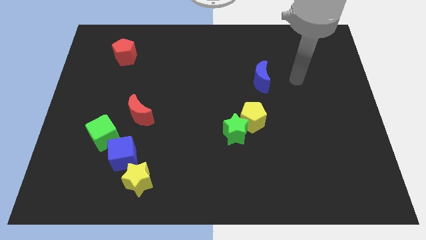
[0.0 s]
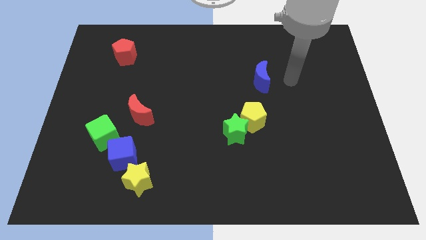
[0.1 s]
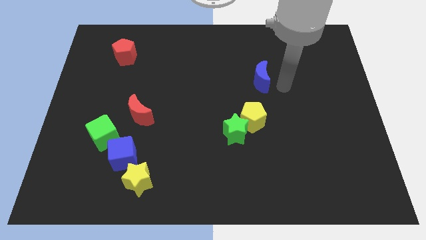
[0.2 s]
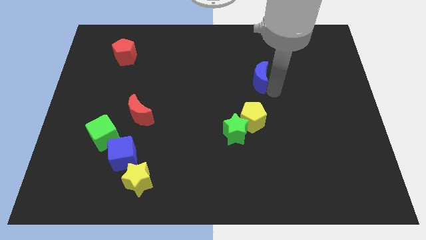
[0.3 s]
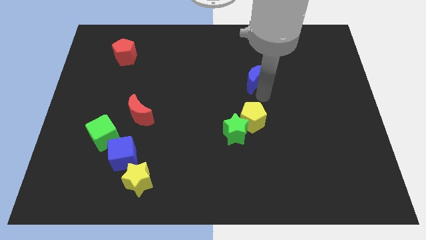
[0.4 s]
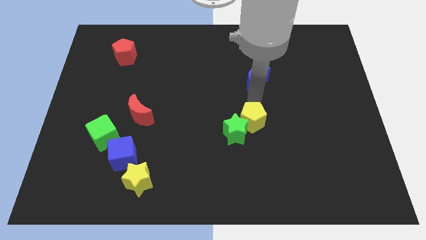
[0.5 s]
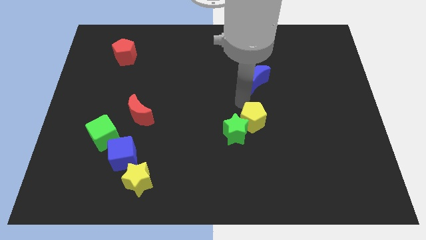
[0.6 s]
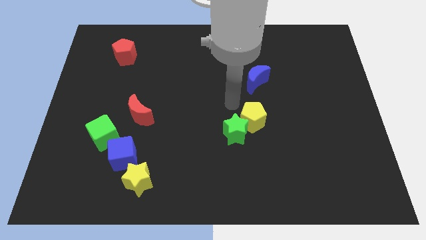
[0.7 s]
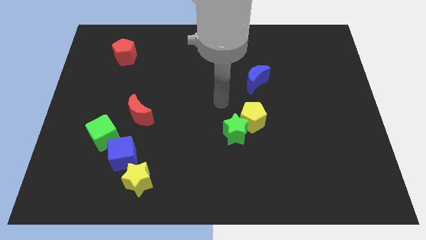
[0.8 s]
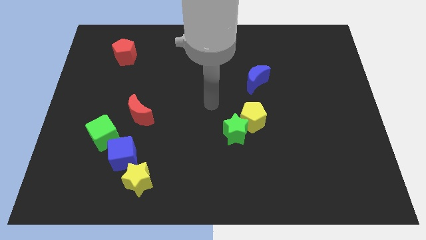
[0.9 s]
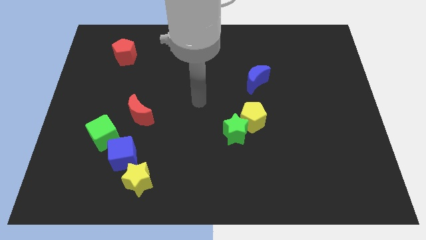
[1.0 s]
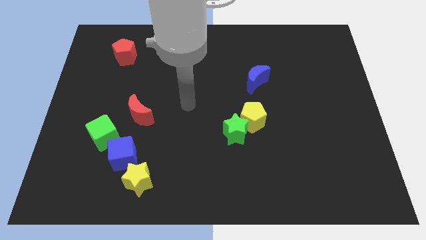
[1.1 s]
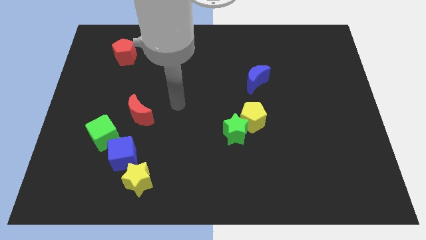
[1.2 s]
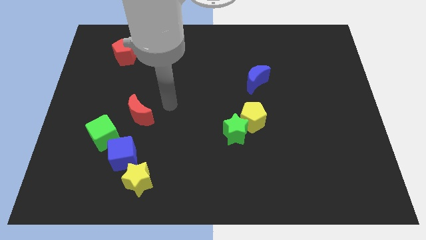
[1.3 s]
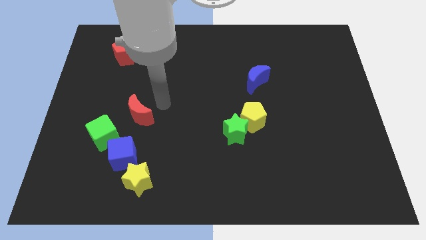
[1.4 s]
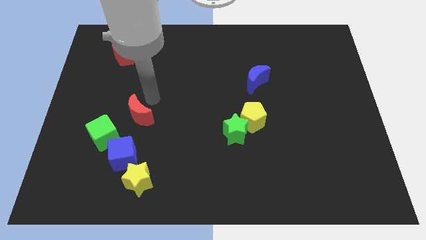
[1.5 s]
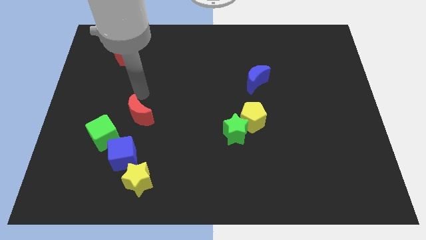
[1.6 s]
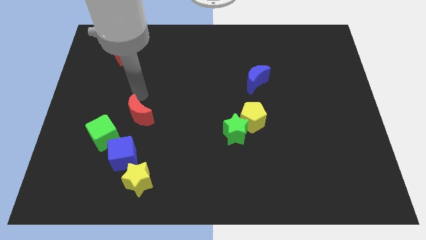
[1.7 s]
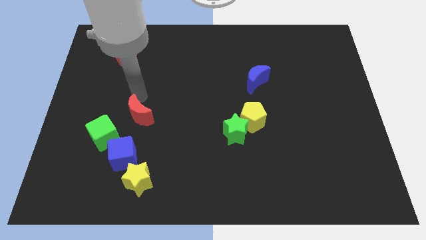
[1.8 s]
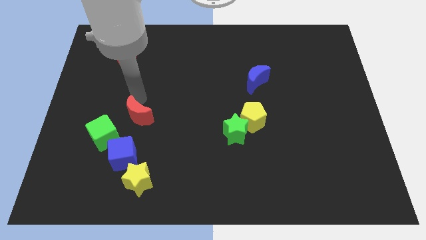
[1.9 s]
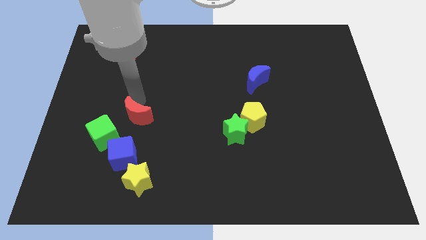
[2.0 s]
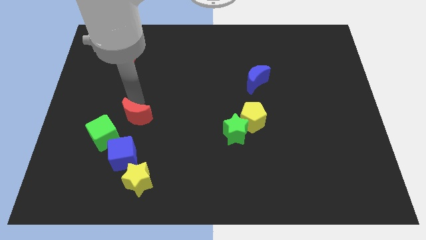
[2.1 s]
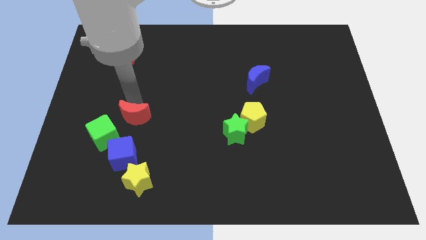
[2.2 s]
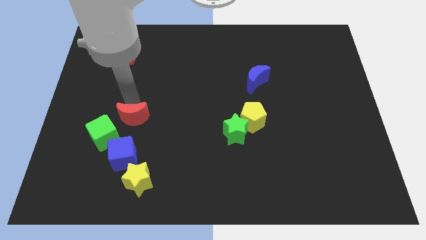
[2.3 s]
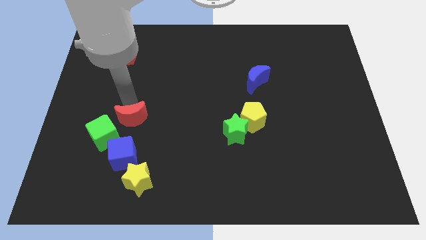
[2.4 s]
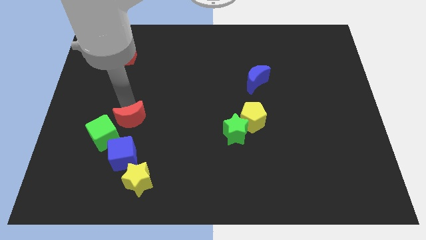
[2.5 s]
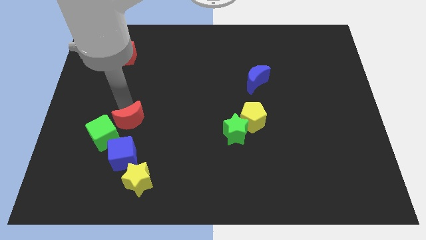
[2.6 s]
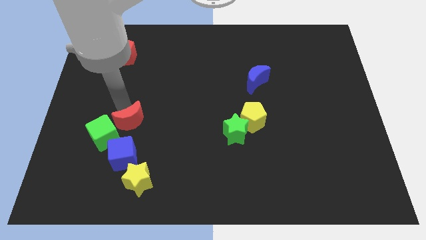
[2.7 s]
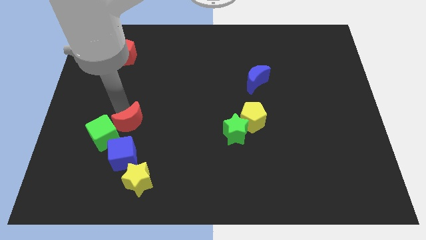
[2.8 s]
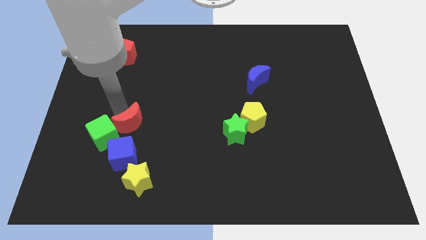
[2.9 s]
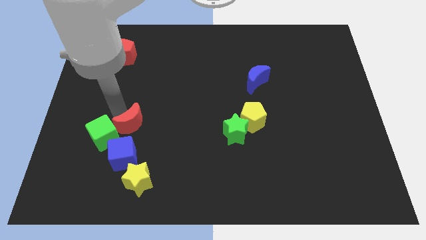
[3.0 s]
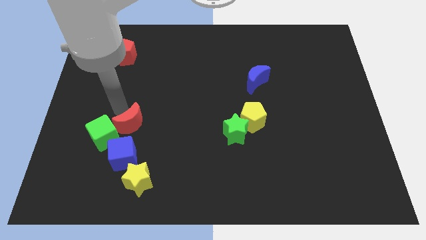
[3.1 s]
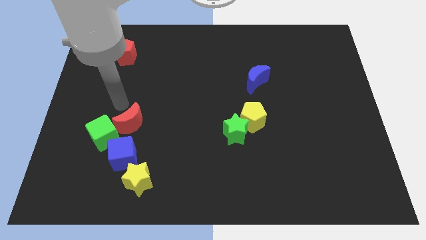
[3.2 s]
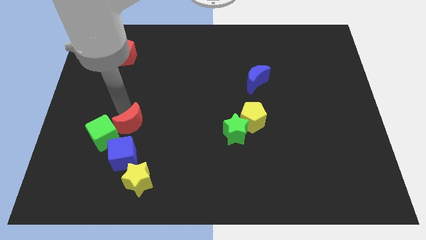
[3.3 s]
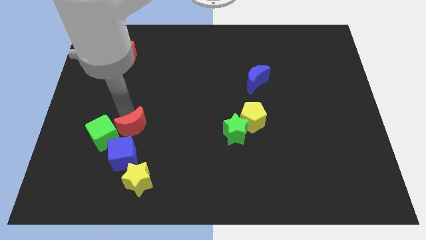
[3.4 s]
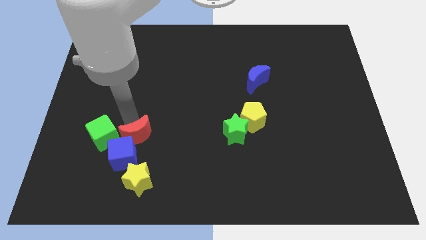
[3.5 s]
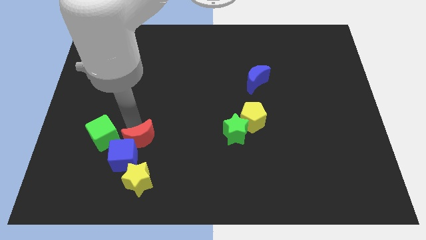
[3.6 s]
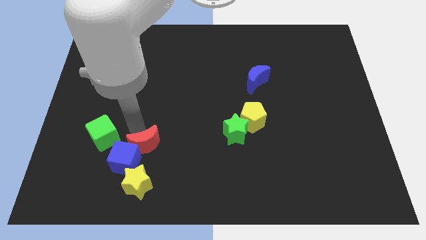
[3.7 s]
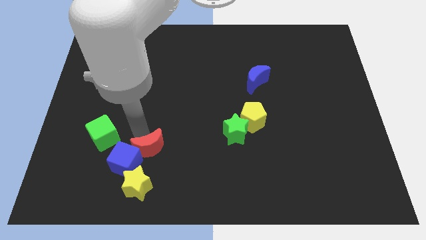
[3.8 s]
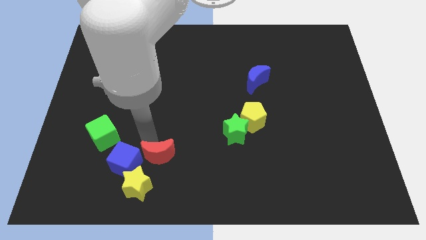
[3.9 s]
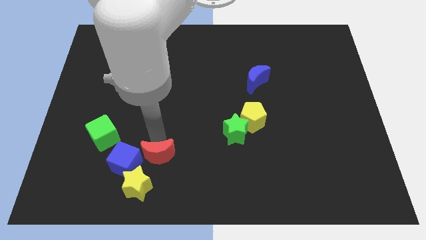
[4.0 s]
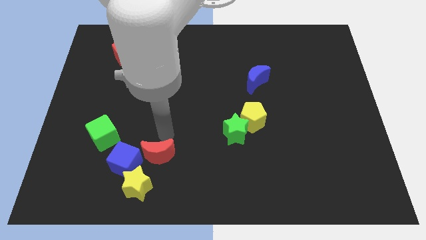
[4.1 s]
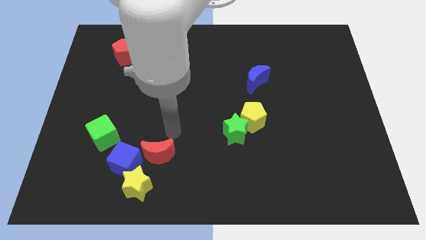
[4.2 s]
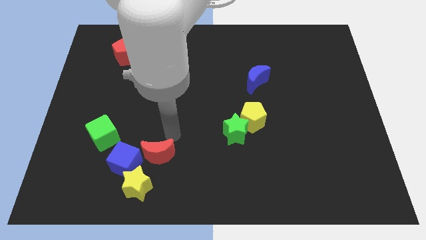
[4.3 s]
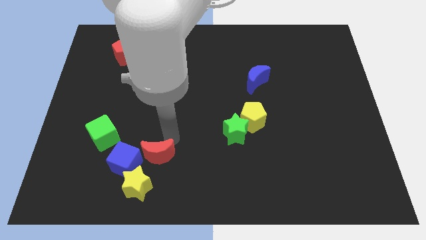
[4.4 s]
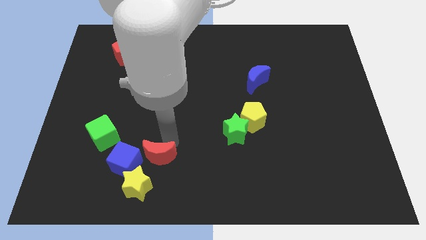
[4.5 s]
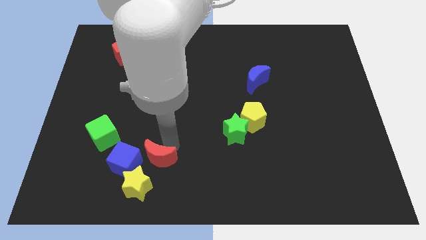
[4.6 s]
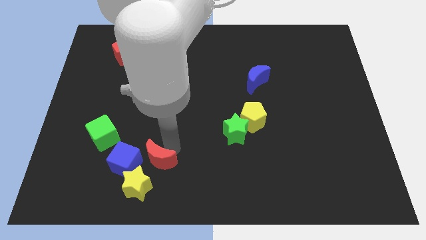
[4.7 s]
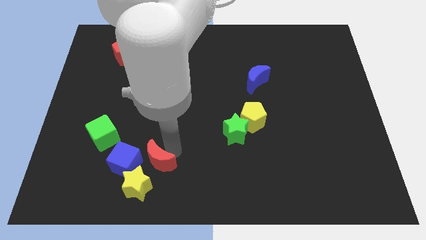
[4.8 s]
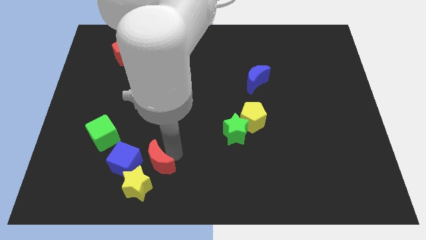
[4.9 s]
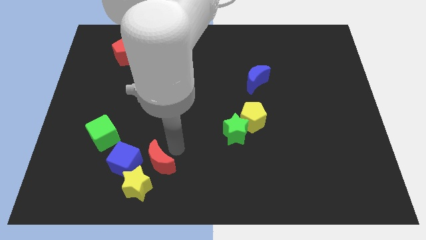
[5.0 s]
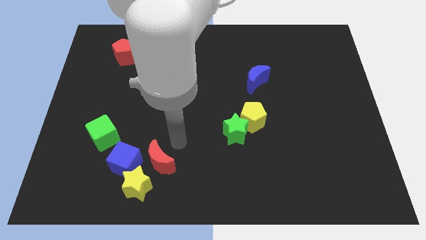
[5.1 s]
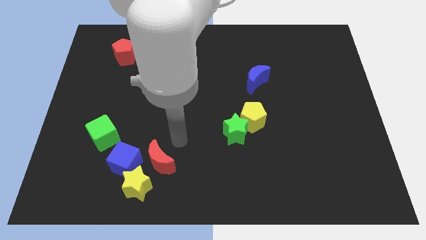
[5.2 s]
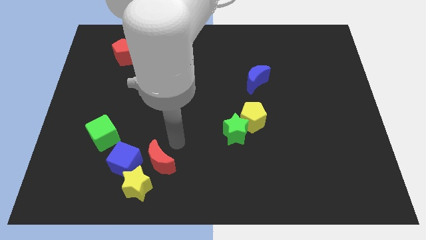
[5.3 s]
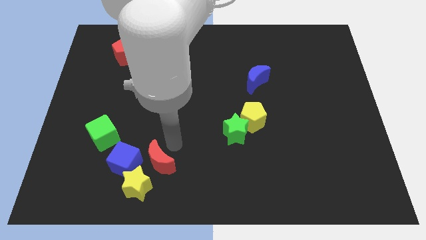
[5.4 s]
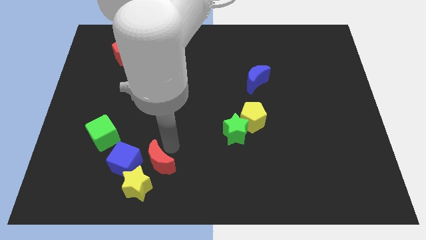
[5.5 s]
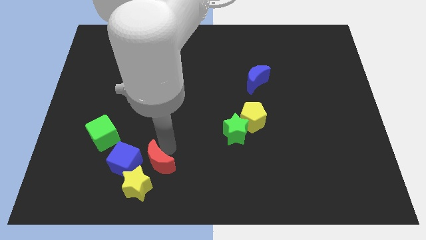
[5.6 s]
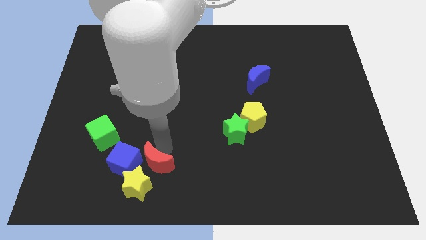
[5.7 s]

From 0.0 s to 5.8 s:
put the red moon towards the yellow star

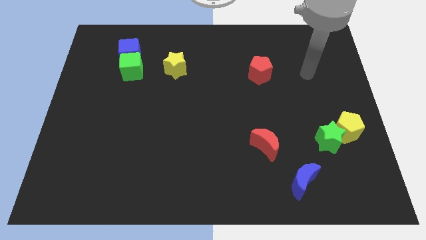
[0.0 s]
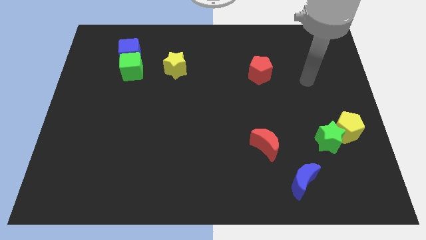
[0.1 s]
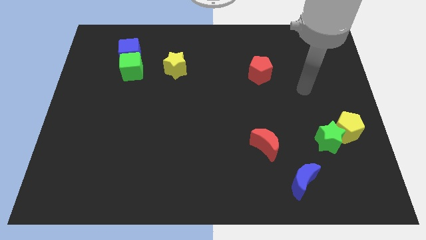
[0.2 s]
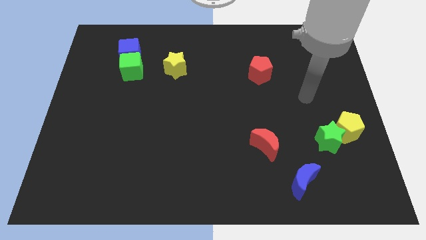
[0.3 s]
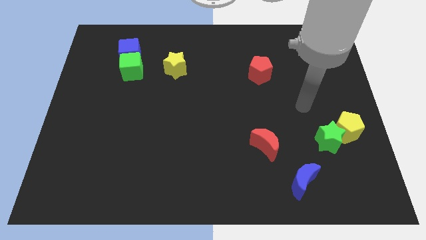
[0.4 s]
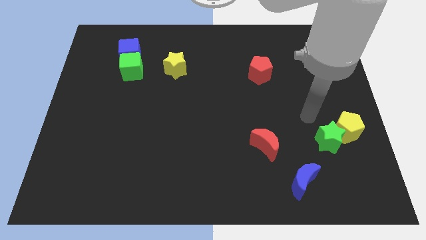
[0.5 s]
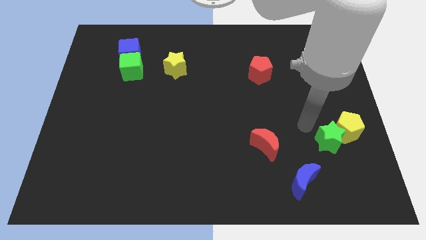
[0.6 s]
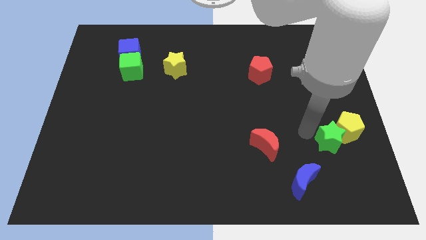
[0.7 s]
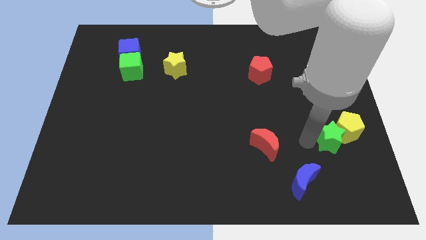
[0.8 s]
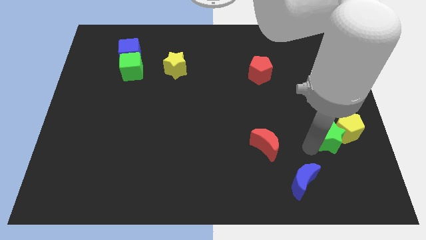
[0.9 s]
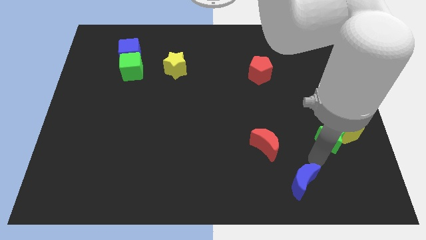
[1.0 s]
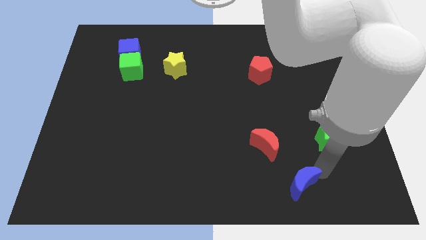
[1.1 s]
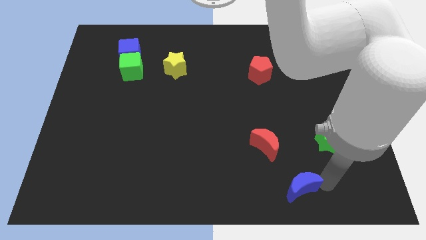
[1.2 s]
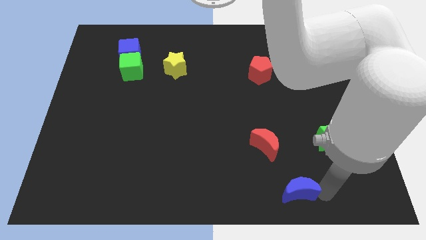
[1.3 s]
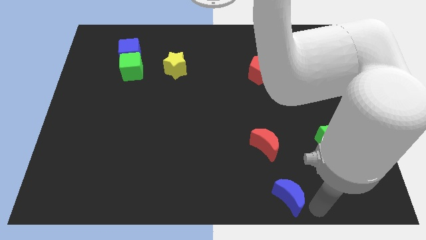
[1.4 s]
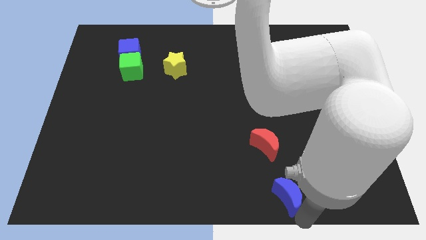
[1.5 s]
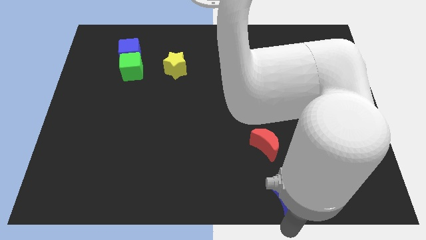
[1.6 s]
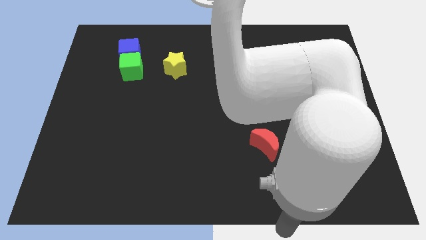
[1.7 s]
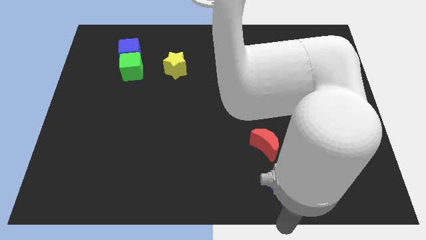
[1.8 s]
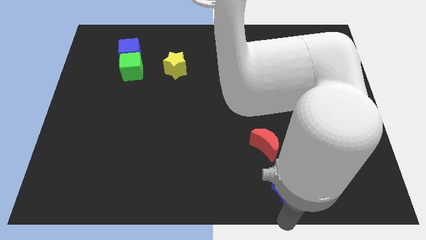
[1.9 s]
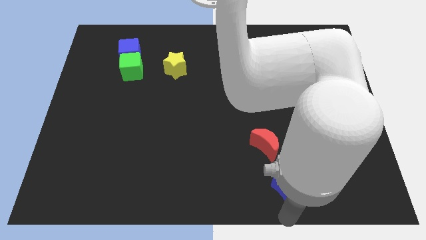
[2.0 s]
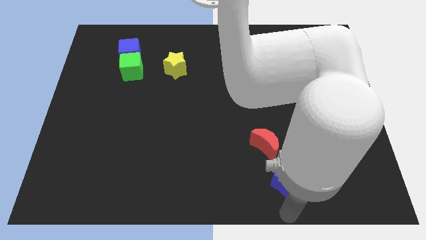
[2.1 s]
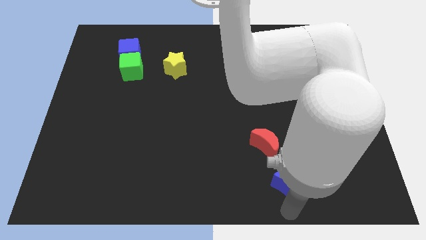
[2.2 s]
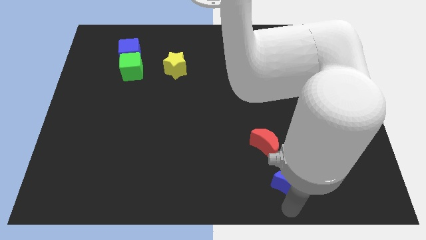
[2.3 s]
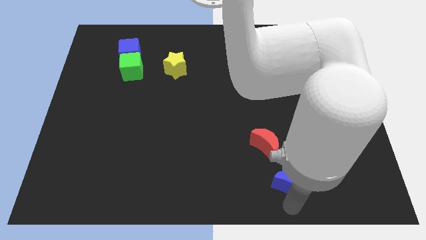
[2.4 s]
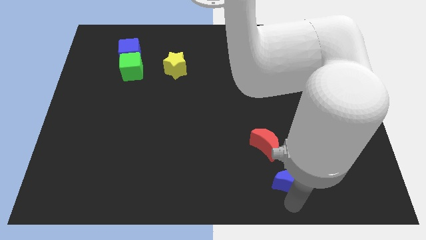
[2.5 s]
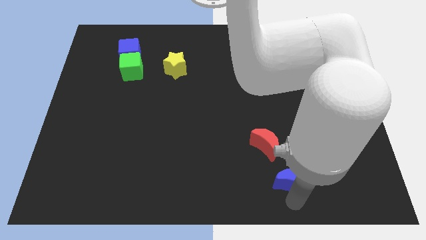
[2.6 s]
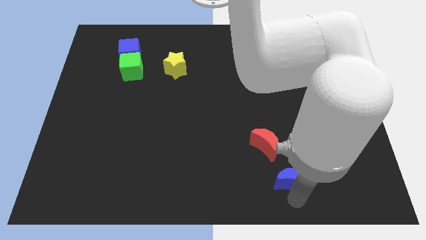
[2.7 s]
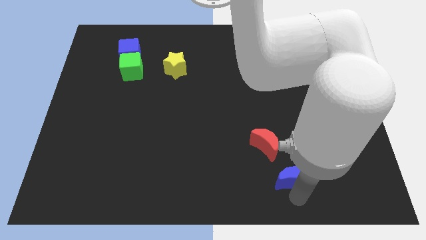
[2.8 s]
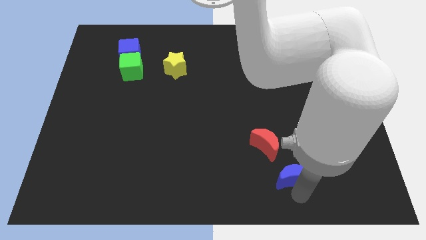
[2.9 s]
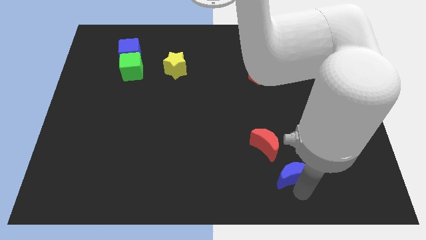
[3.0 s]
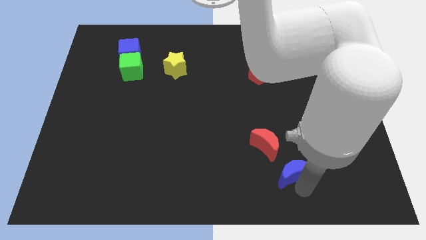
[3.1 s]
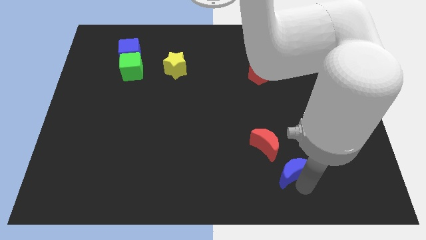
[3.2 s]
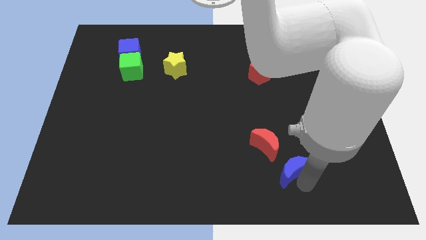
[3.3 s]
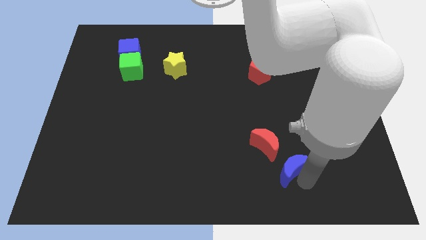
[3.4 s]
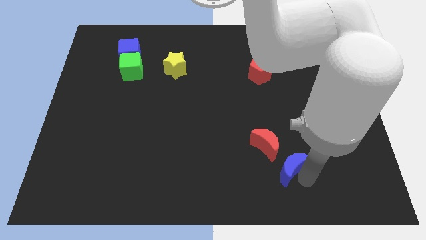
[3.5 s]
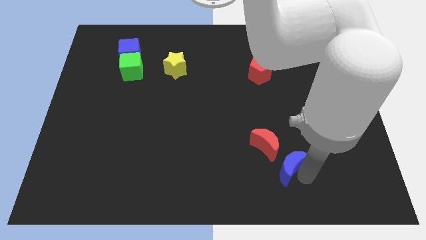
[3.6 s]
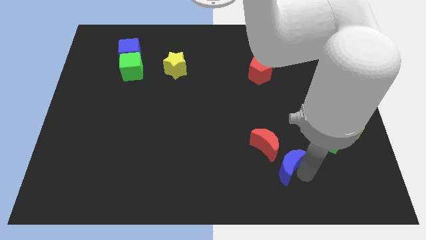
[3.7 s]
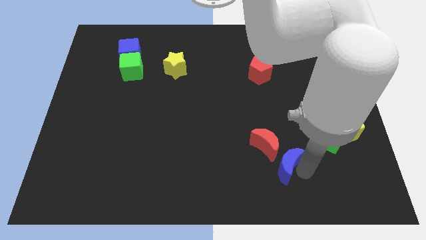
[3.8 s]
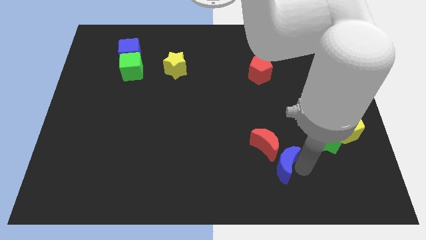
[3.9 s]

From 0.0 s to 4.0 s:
move the blue moon towards the red moon
